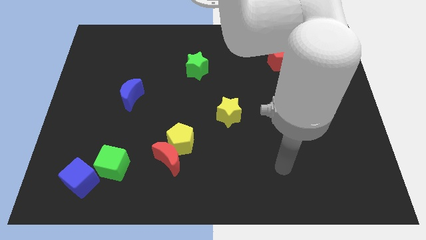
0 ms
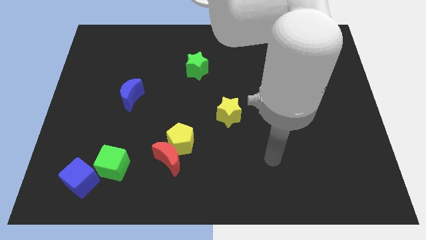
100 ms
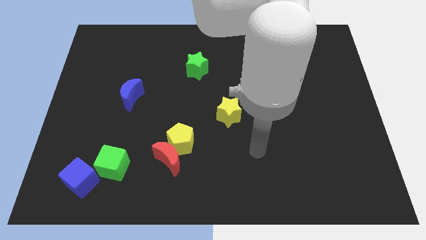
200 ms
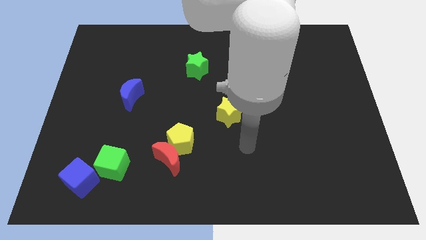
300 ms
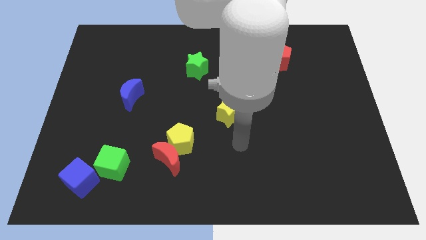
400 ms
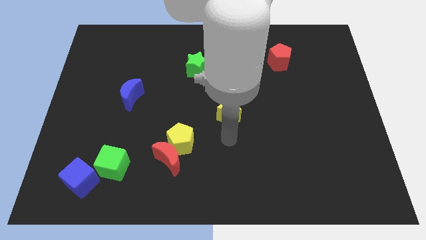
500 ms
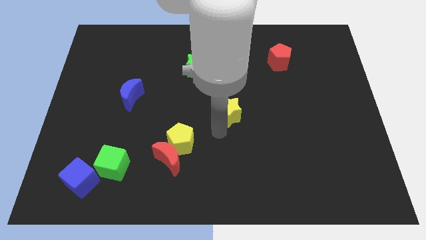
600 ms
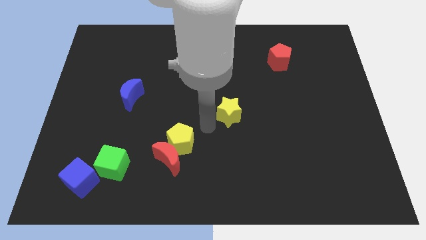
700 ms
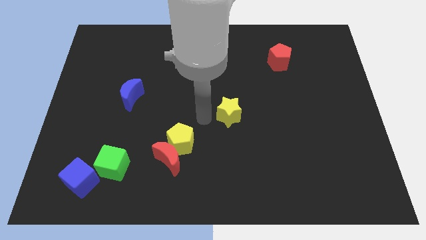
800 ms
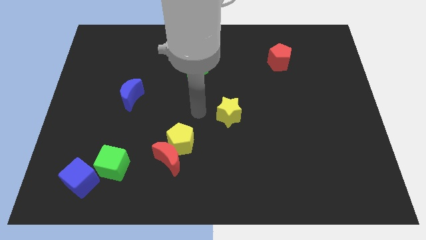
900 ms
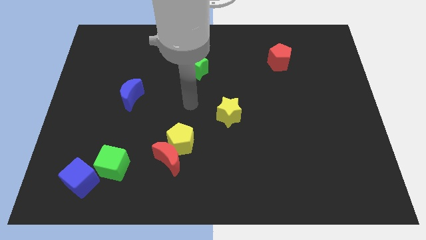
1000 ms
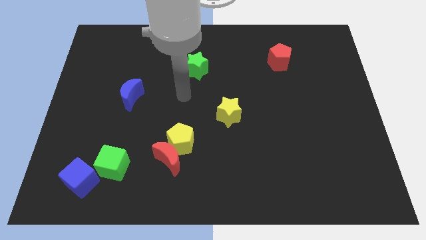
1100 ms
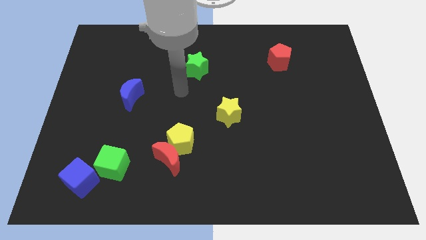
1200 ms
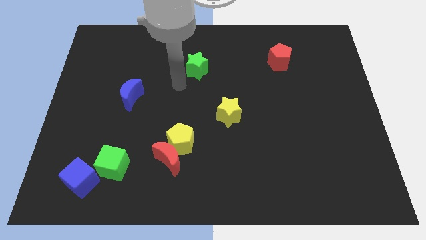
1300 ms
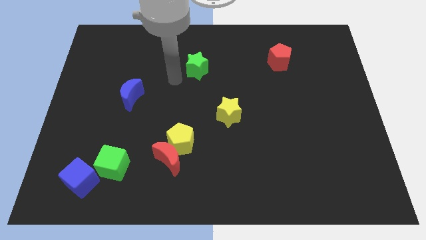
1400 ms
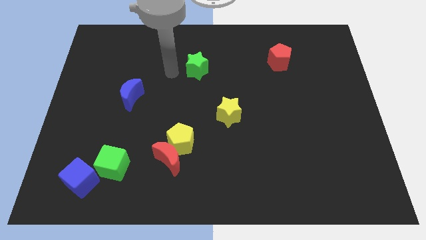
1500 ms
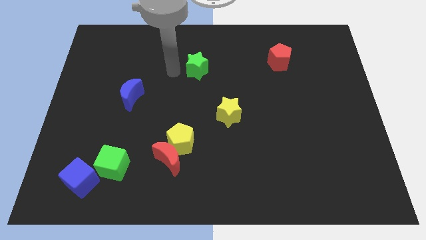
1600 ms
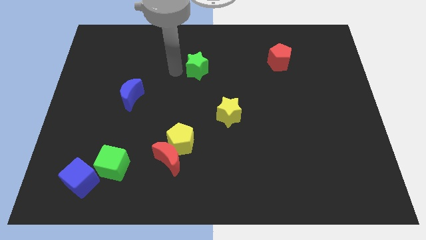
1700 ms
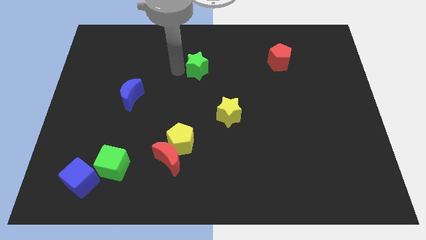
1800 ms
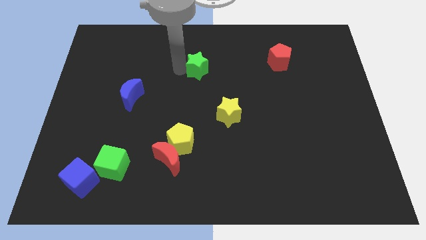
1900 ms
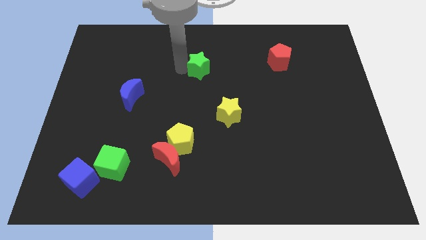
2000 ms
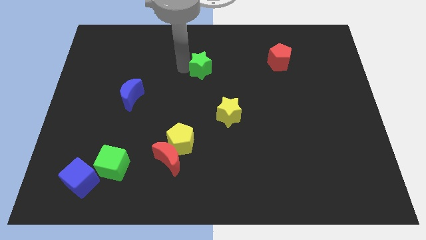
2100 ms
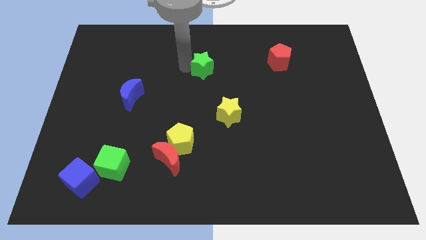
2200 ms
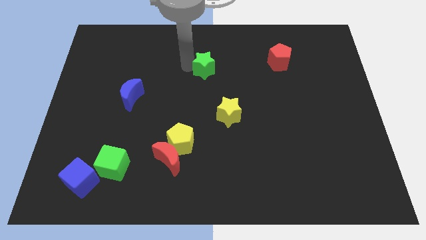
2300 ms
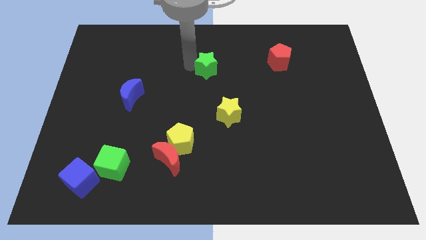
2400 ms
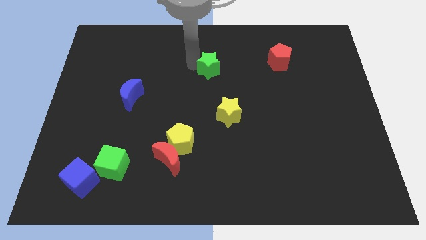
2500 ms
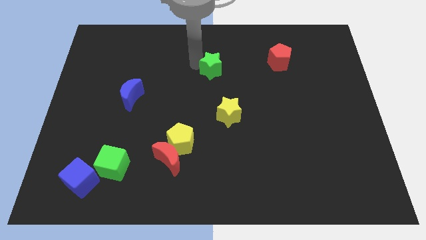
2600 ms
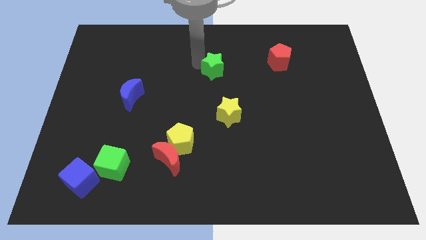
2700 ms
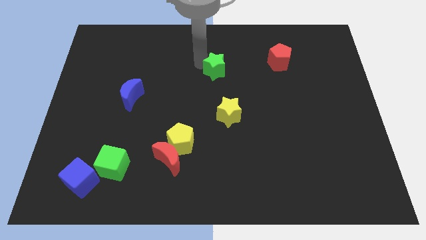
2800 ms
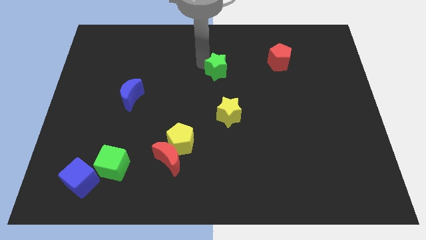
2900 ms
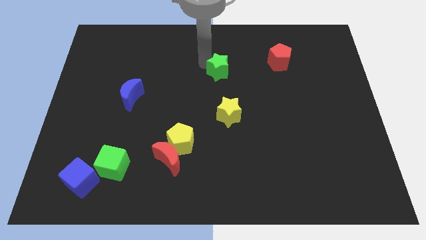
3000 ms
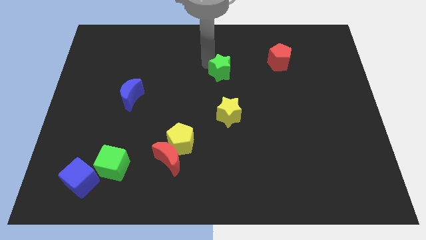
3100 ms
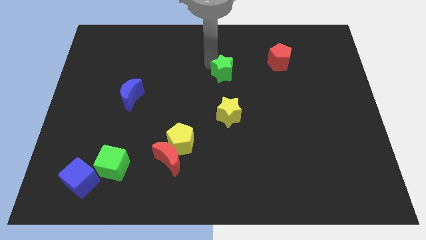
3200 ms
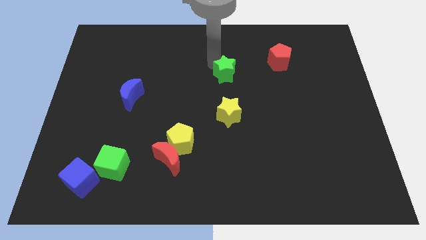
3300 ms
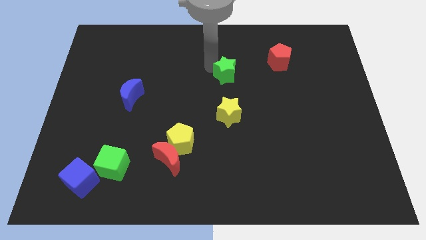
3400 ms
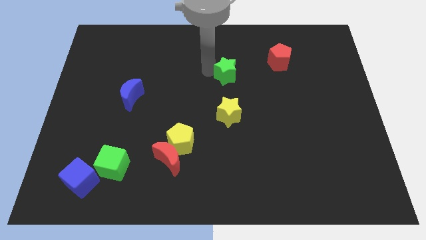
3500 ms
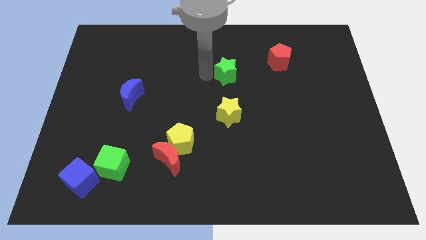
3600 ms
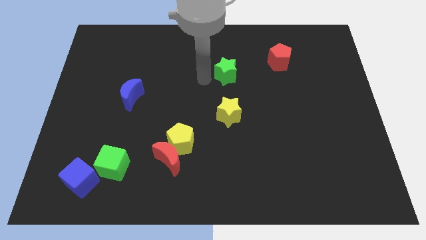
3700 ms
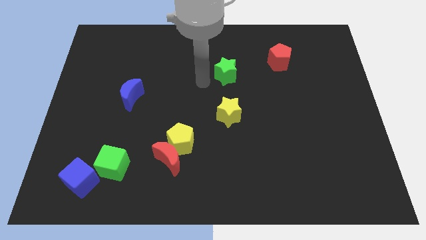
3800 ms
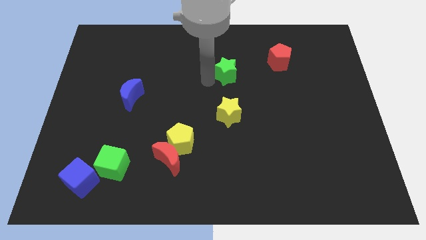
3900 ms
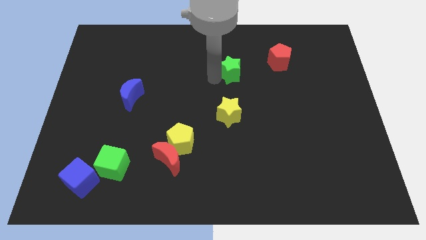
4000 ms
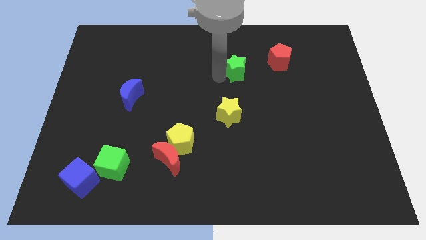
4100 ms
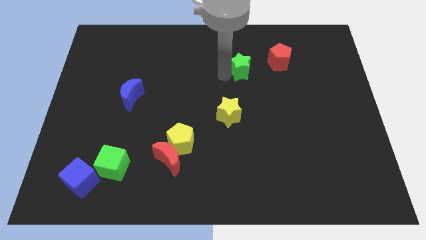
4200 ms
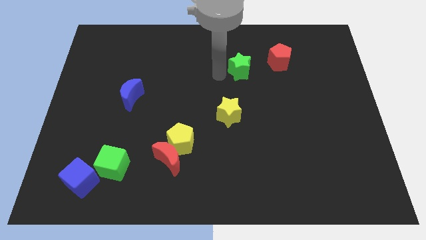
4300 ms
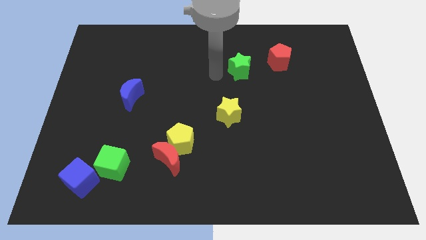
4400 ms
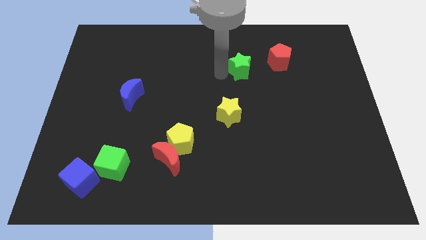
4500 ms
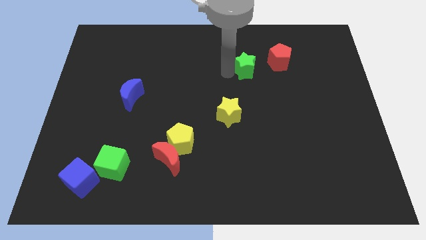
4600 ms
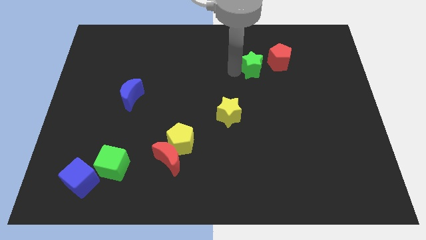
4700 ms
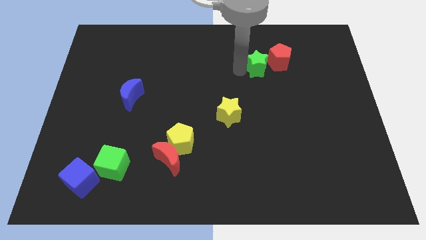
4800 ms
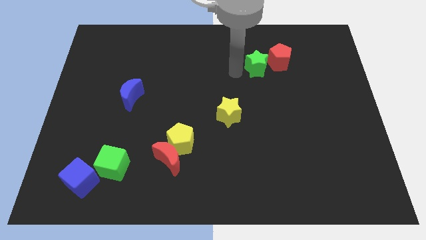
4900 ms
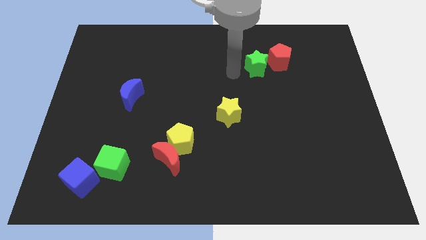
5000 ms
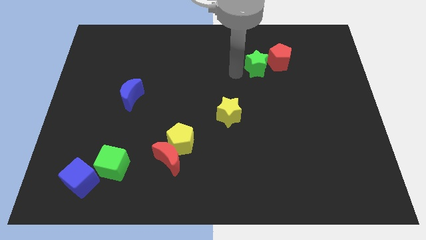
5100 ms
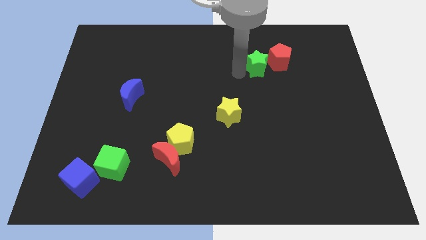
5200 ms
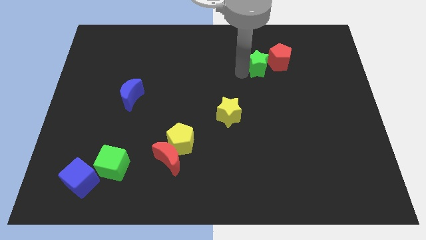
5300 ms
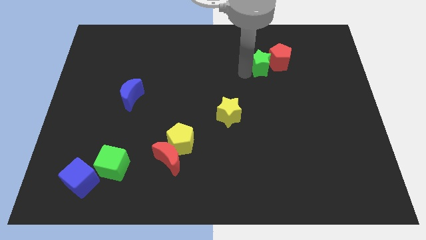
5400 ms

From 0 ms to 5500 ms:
put the green star towards the red pentagon

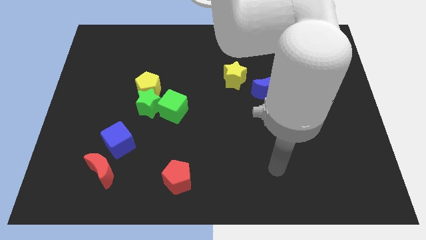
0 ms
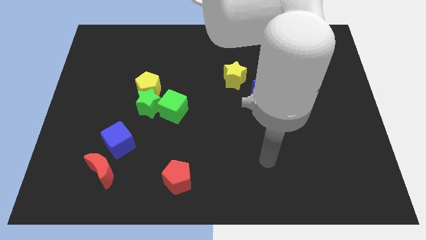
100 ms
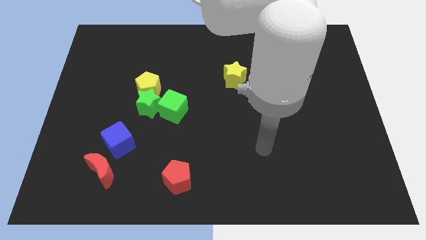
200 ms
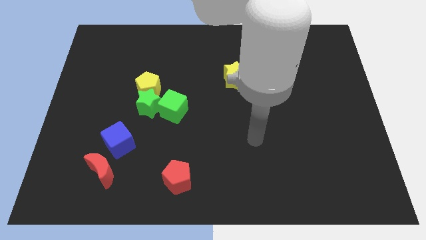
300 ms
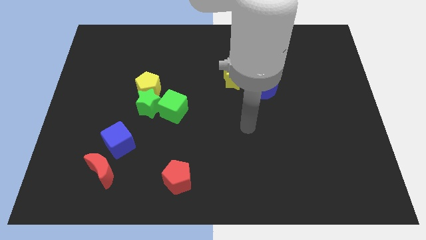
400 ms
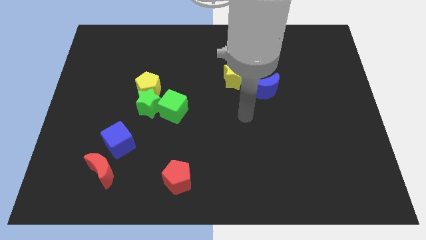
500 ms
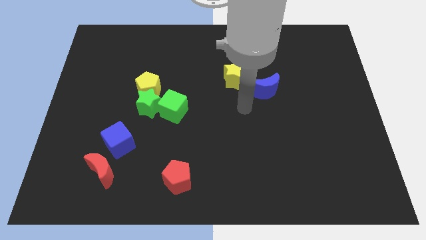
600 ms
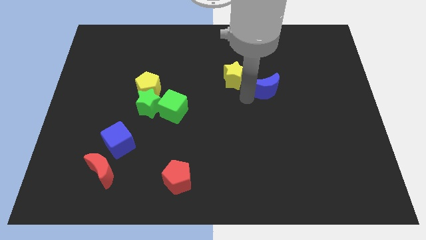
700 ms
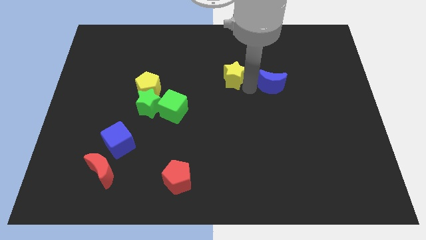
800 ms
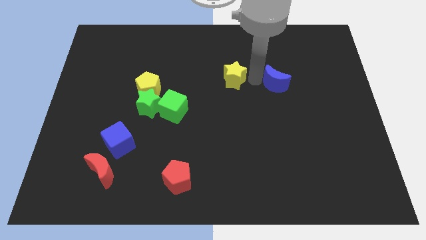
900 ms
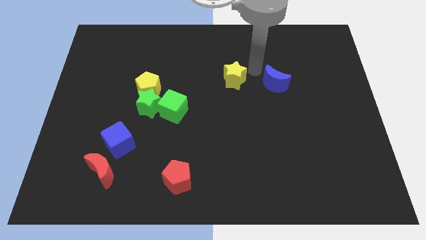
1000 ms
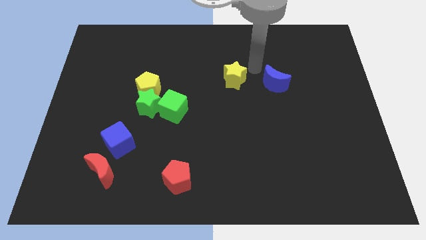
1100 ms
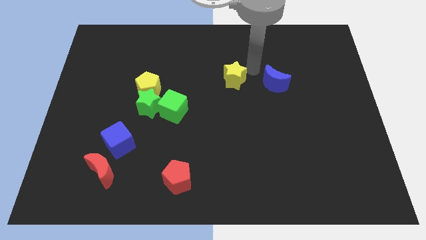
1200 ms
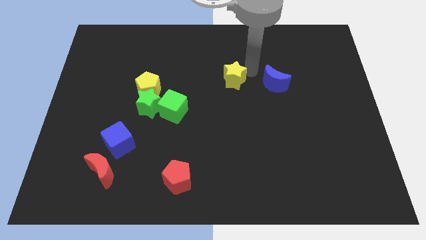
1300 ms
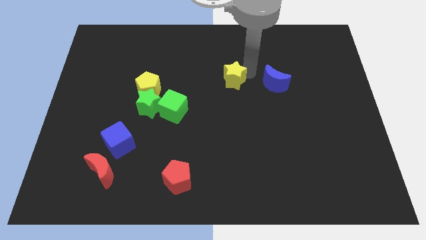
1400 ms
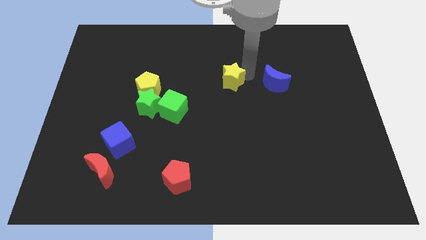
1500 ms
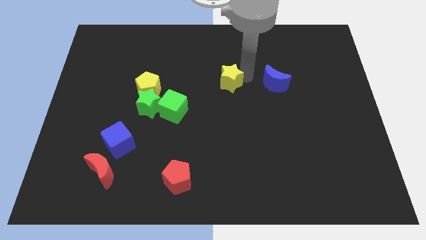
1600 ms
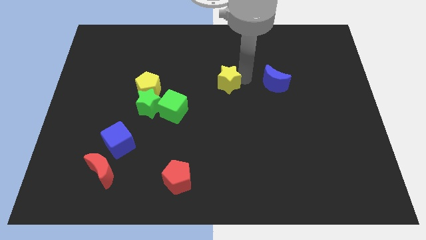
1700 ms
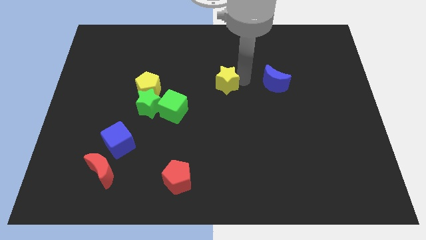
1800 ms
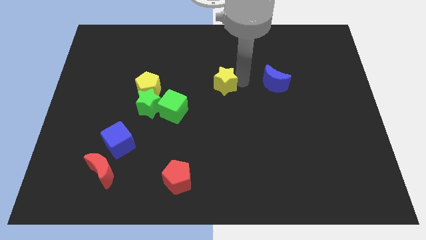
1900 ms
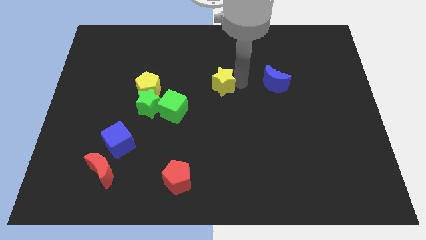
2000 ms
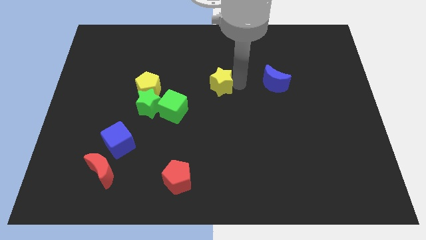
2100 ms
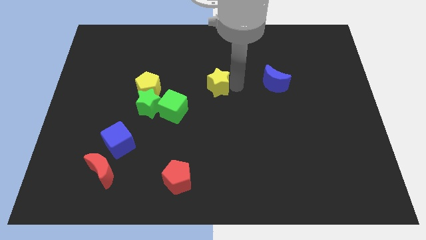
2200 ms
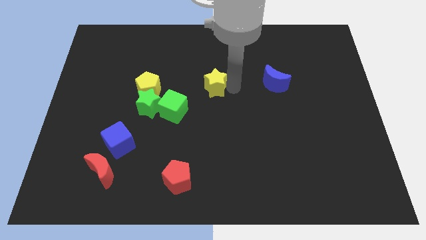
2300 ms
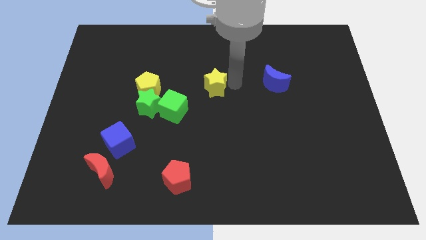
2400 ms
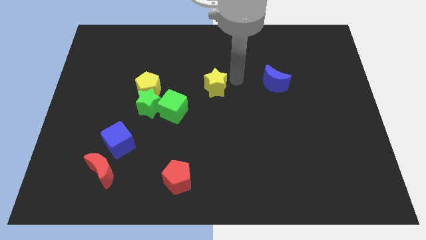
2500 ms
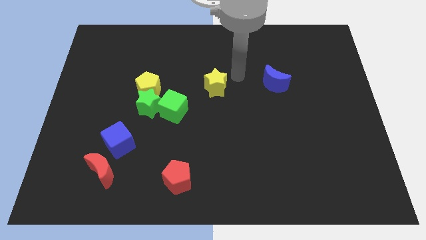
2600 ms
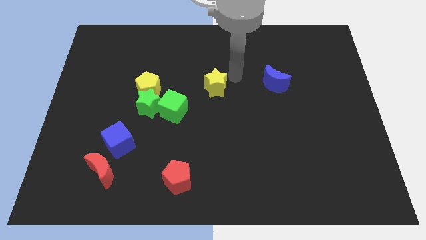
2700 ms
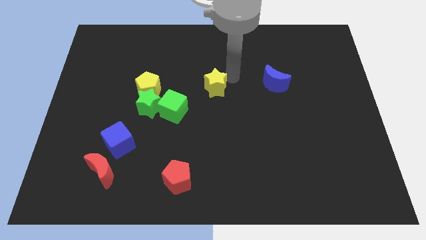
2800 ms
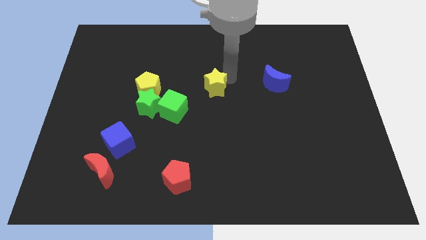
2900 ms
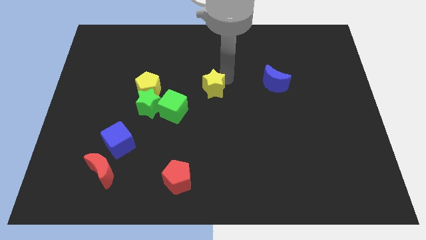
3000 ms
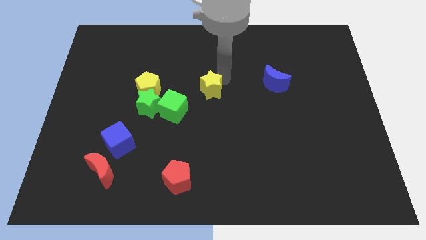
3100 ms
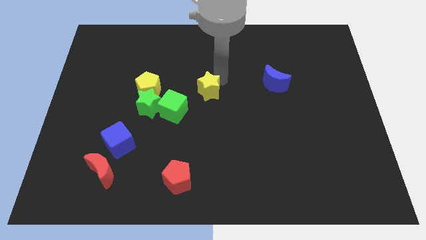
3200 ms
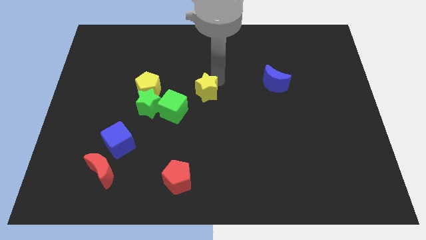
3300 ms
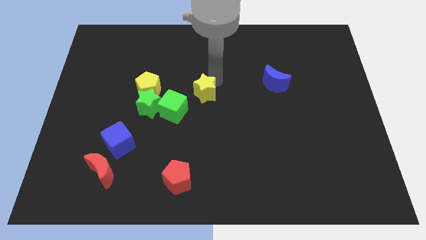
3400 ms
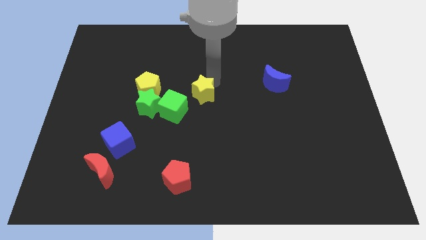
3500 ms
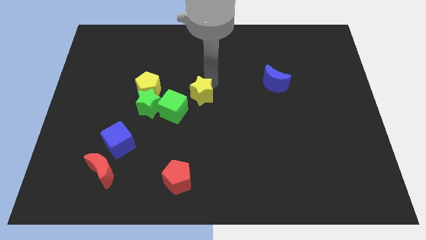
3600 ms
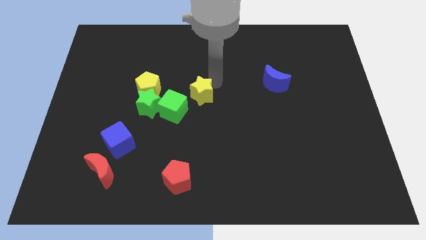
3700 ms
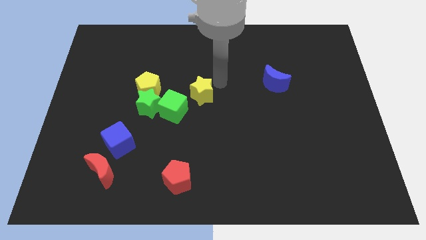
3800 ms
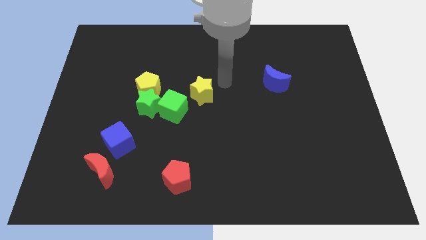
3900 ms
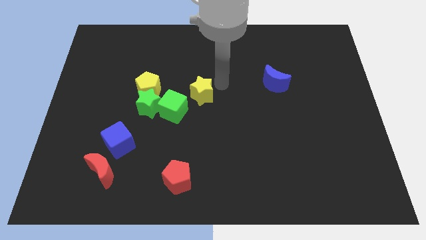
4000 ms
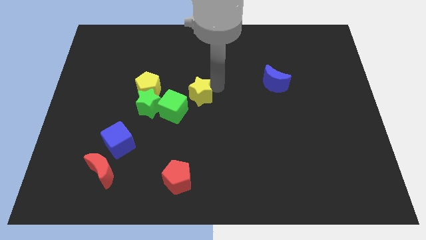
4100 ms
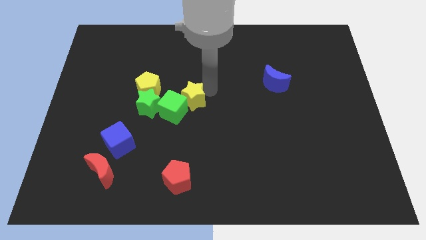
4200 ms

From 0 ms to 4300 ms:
slide the yellow star close to the green cube
